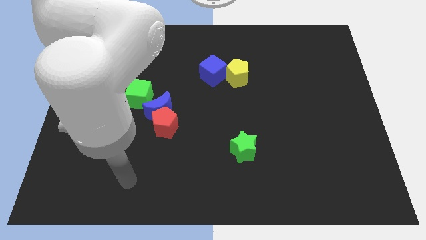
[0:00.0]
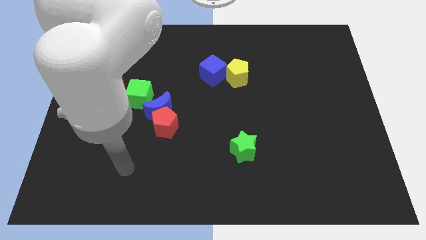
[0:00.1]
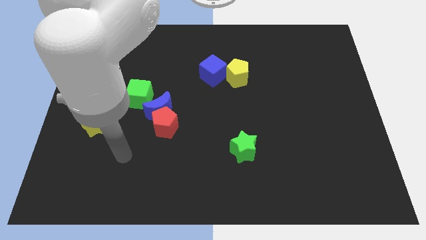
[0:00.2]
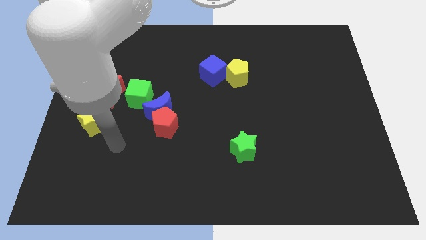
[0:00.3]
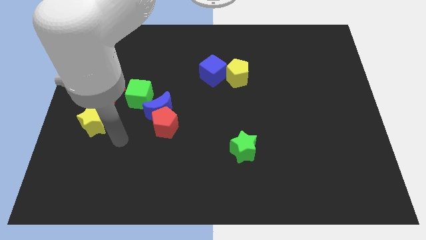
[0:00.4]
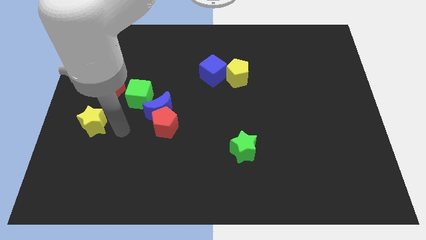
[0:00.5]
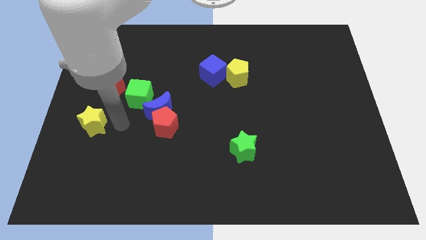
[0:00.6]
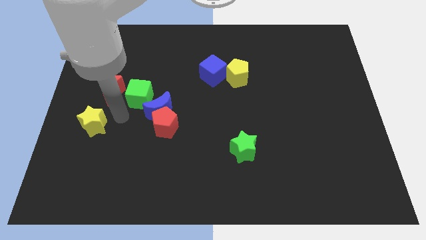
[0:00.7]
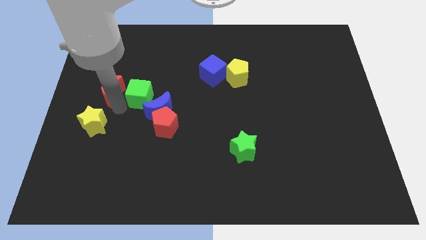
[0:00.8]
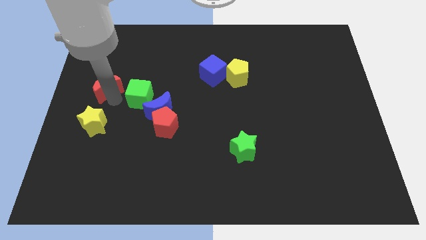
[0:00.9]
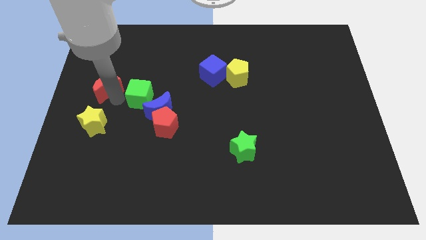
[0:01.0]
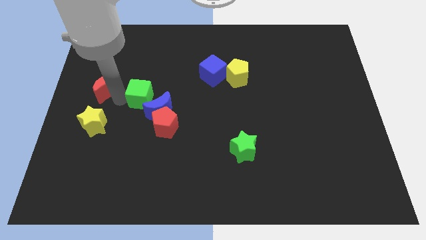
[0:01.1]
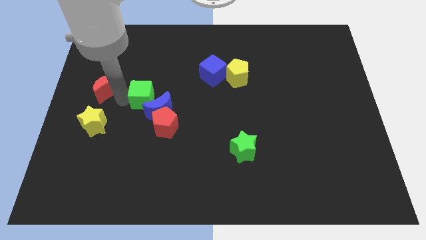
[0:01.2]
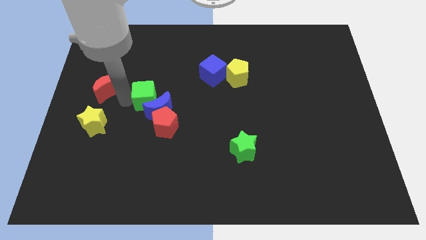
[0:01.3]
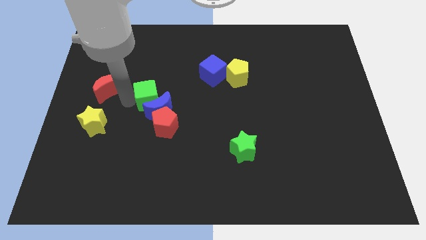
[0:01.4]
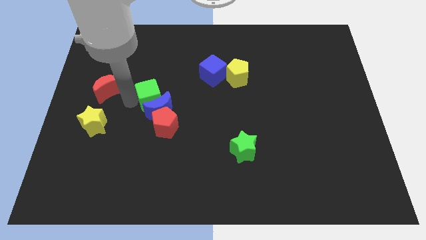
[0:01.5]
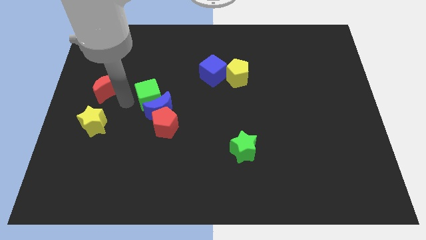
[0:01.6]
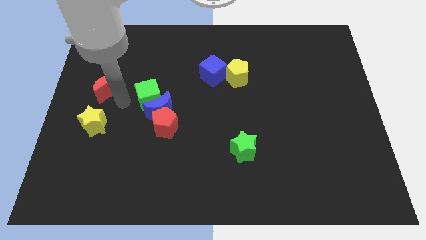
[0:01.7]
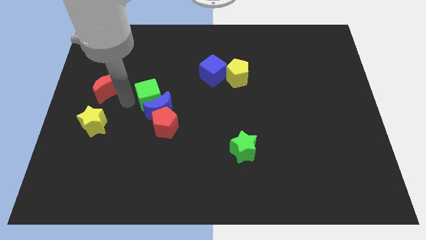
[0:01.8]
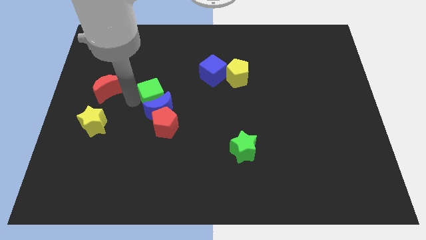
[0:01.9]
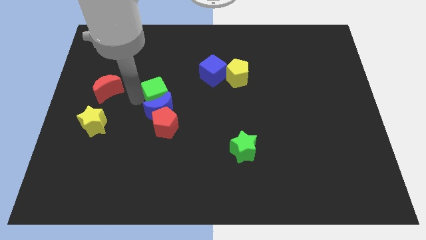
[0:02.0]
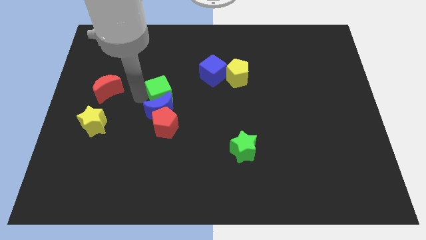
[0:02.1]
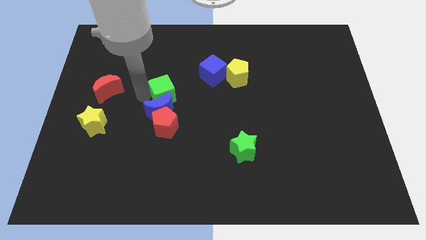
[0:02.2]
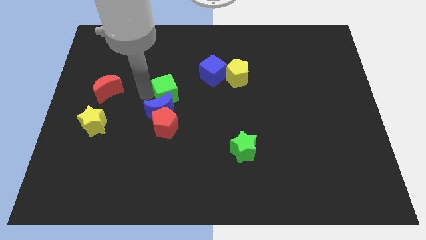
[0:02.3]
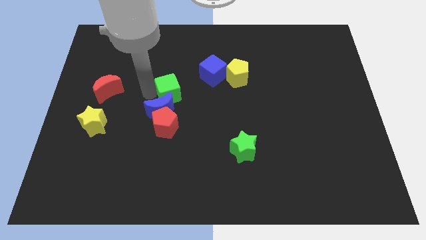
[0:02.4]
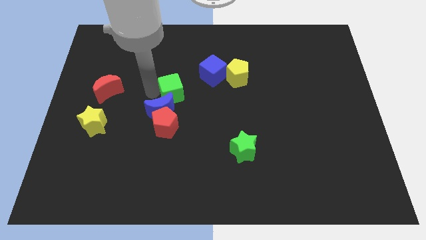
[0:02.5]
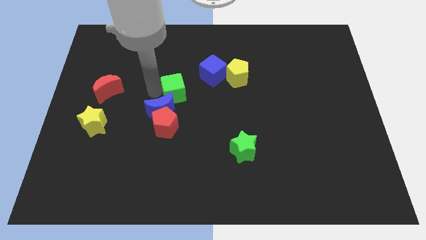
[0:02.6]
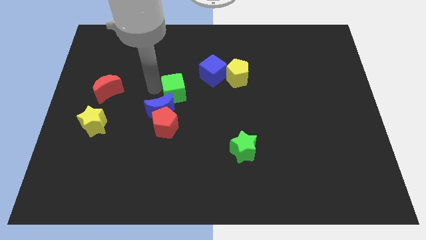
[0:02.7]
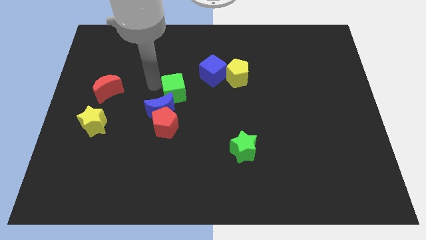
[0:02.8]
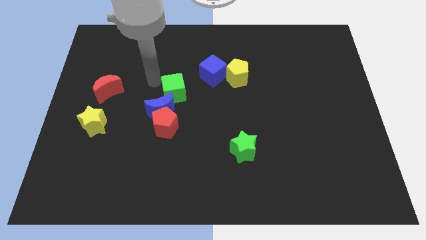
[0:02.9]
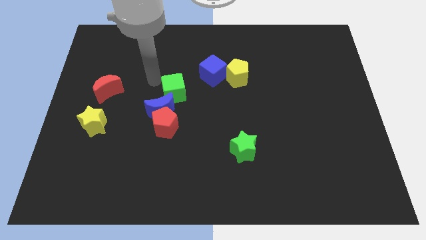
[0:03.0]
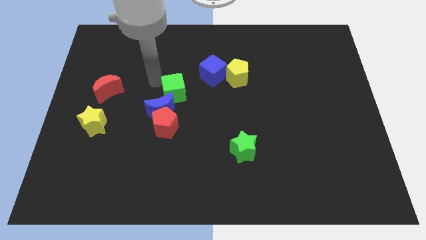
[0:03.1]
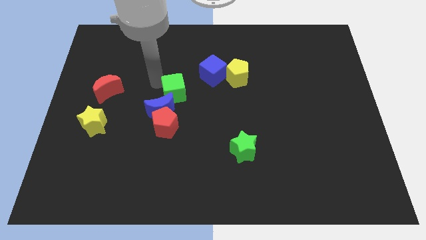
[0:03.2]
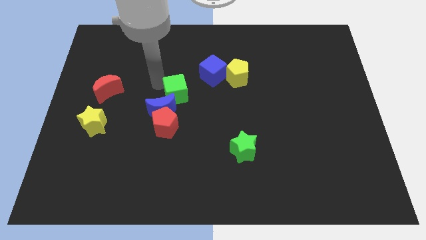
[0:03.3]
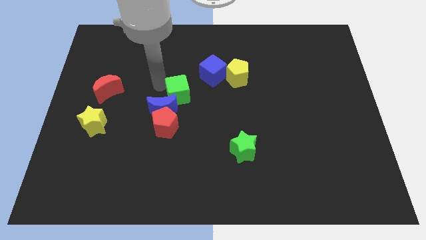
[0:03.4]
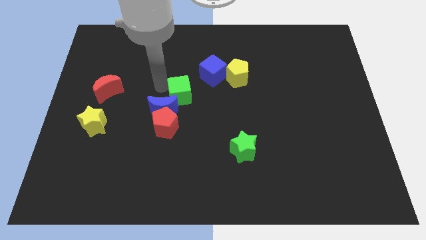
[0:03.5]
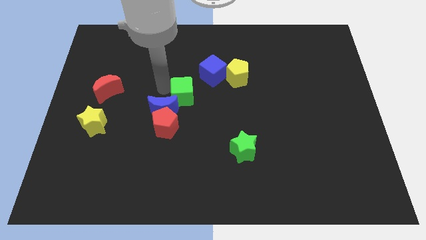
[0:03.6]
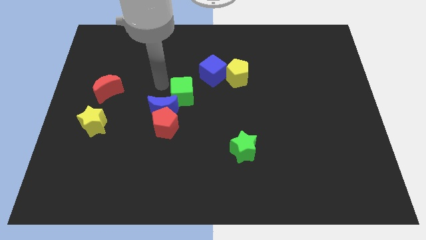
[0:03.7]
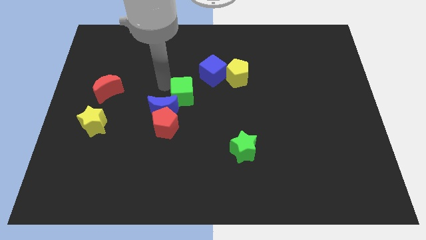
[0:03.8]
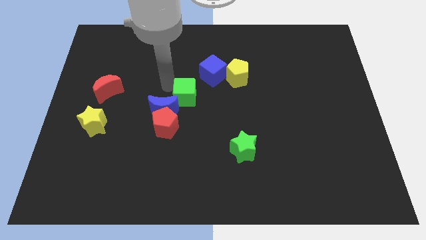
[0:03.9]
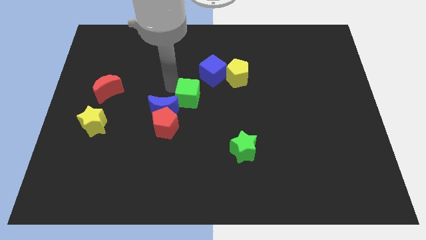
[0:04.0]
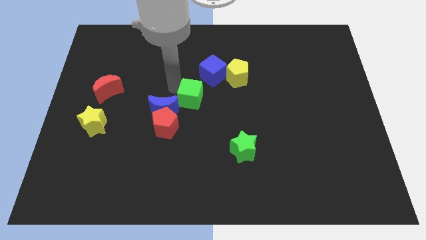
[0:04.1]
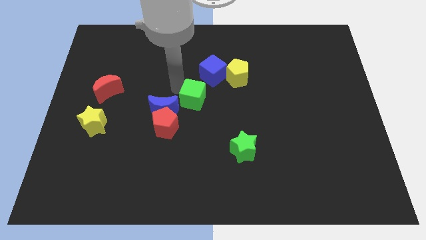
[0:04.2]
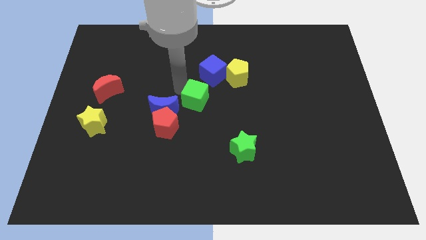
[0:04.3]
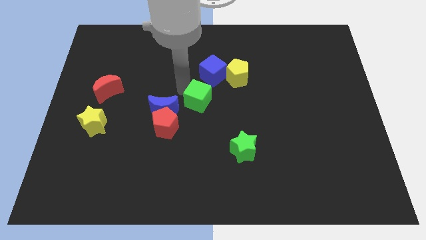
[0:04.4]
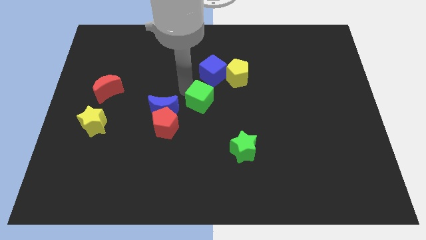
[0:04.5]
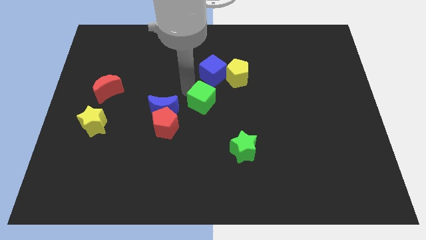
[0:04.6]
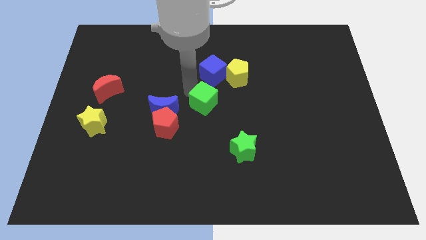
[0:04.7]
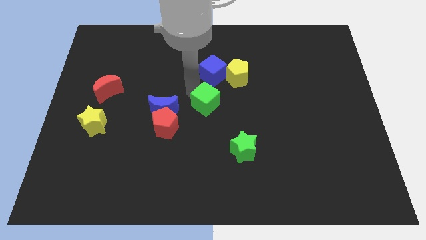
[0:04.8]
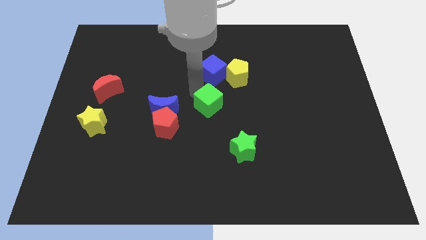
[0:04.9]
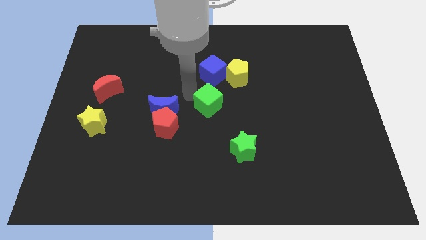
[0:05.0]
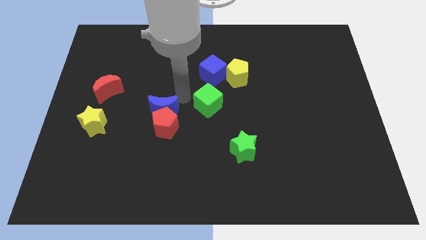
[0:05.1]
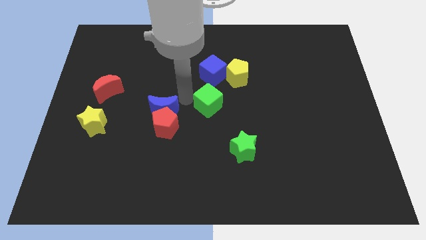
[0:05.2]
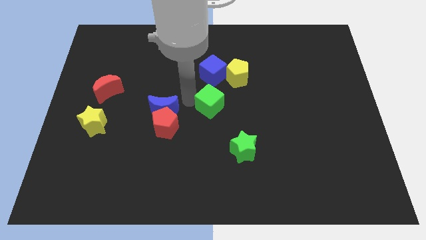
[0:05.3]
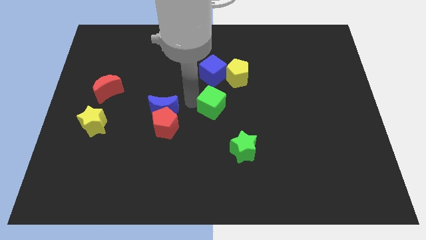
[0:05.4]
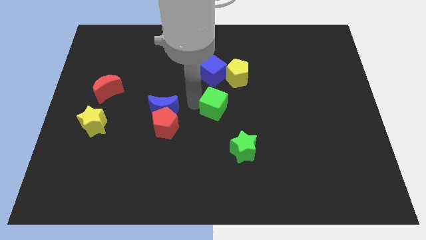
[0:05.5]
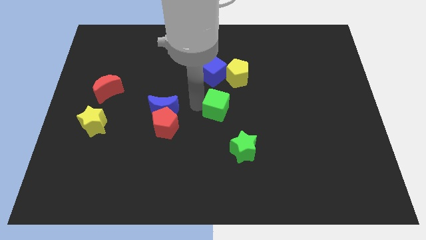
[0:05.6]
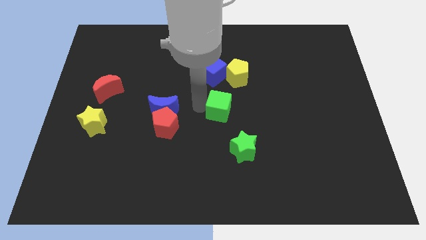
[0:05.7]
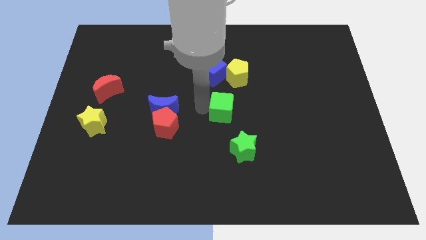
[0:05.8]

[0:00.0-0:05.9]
slide the green cube above the green star
